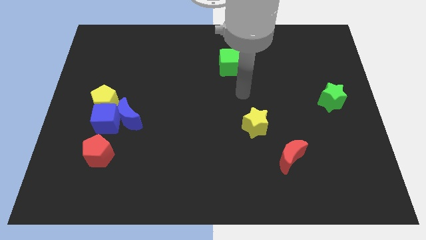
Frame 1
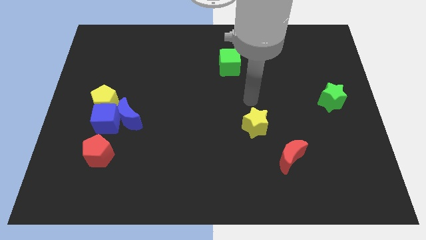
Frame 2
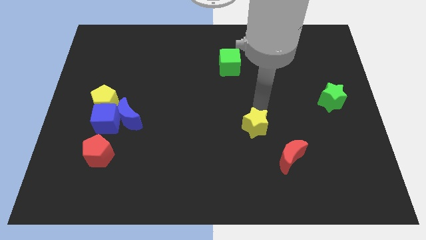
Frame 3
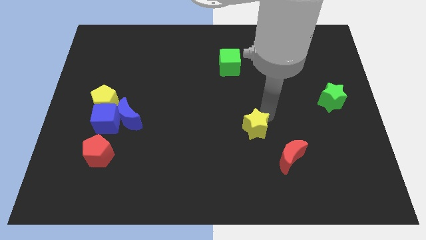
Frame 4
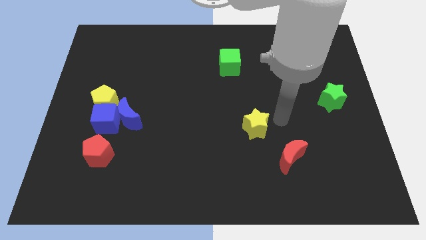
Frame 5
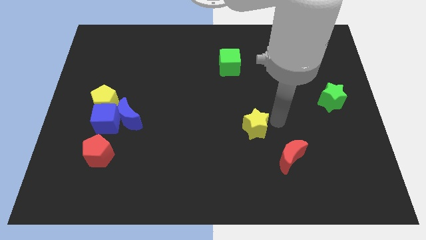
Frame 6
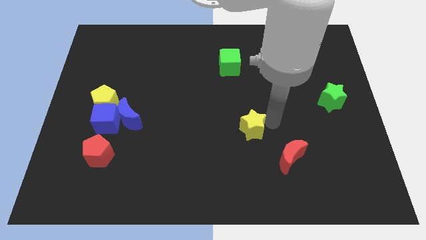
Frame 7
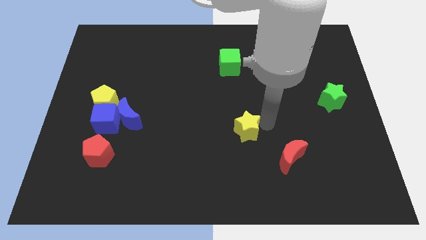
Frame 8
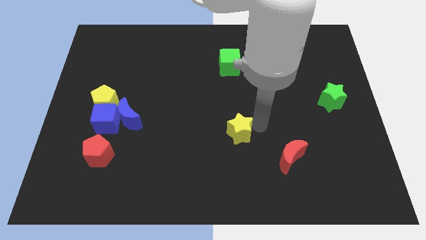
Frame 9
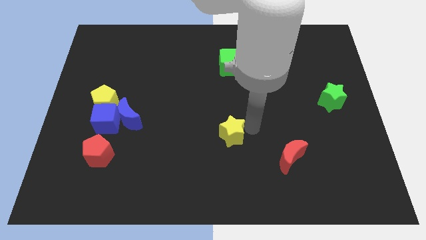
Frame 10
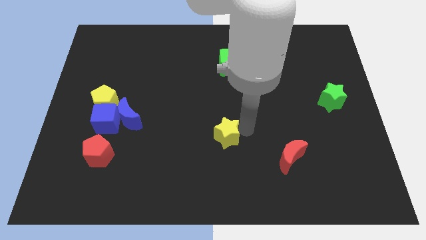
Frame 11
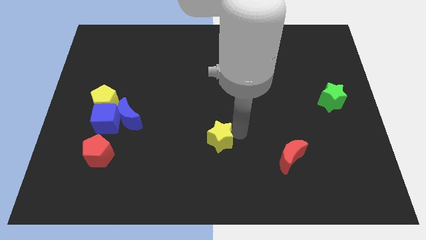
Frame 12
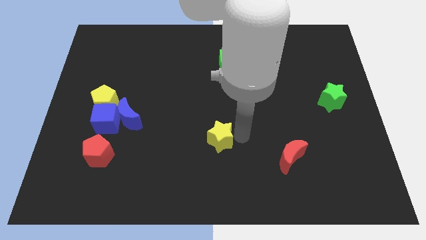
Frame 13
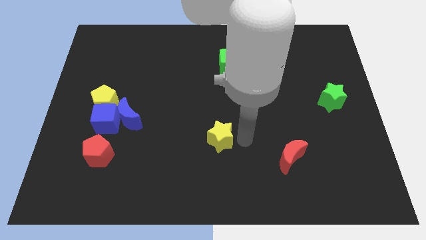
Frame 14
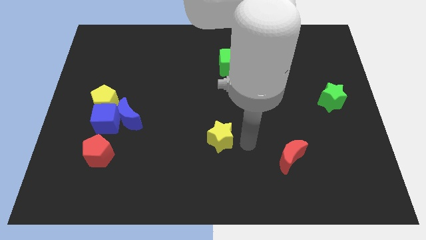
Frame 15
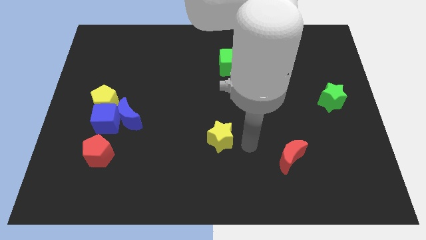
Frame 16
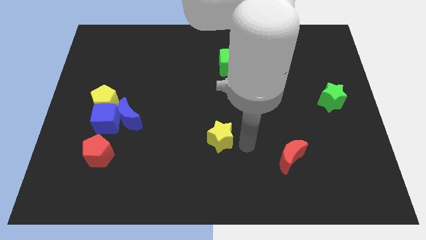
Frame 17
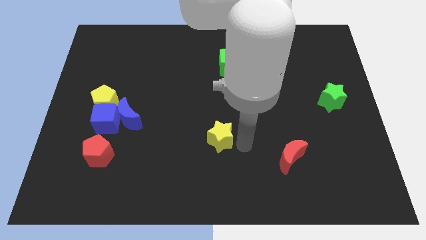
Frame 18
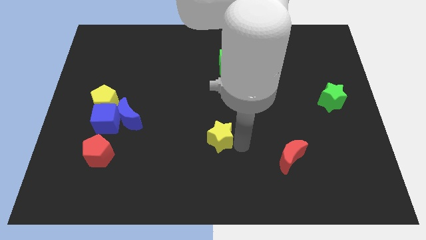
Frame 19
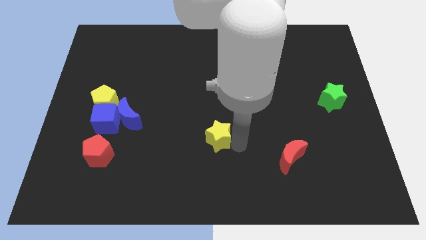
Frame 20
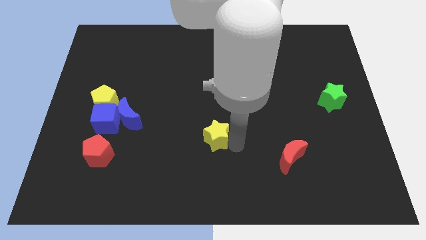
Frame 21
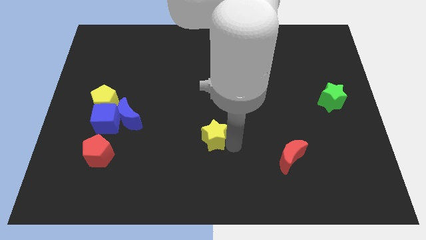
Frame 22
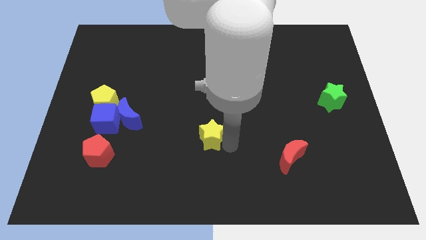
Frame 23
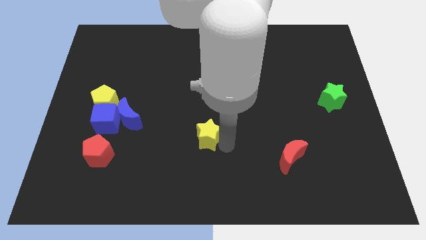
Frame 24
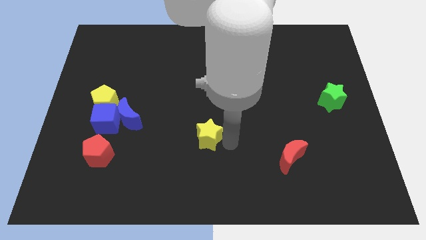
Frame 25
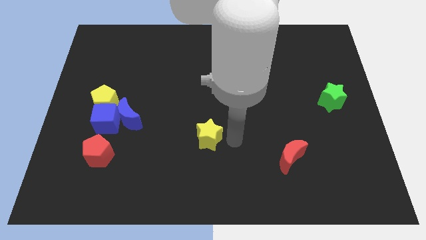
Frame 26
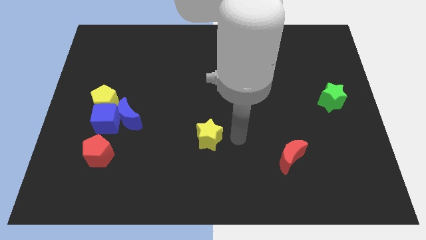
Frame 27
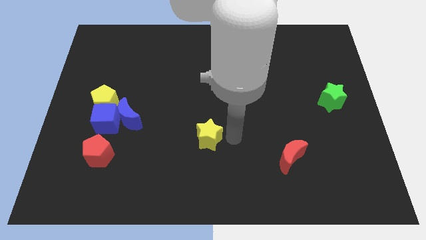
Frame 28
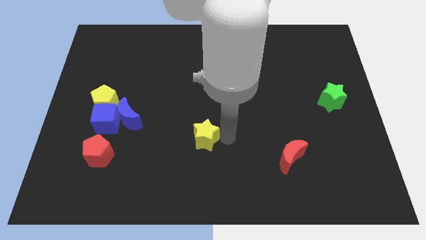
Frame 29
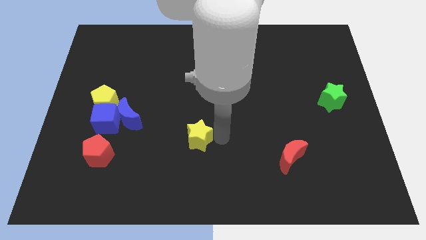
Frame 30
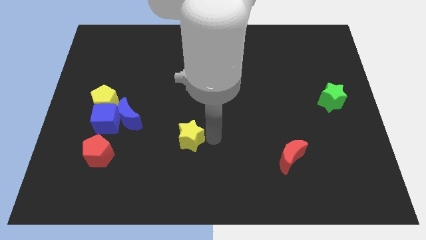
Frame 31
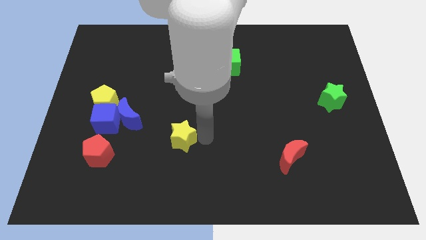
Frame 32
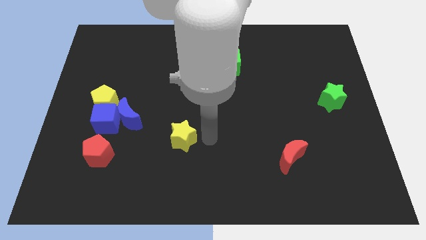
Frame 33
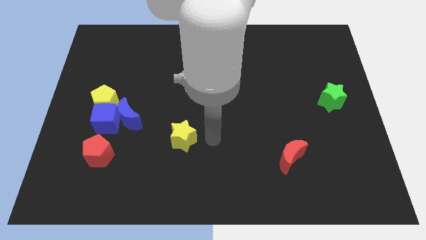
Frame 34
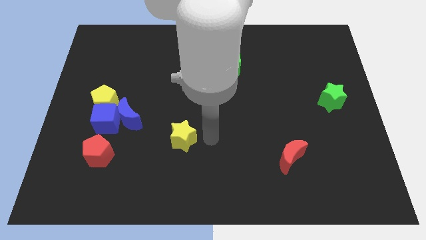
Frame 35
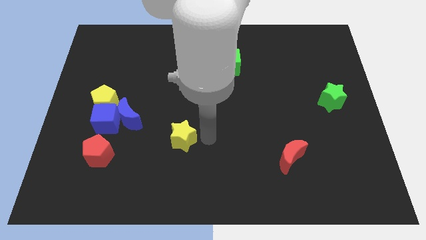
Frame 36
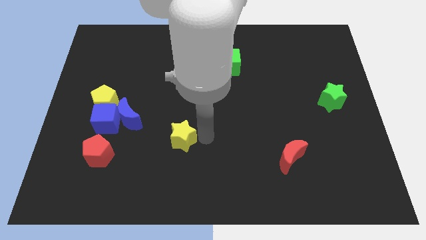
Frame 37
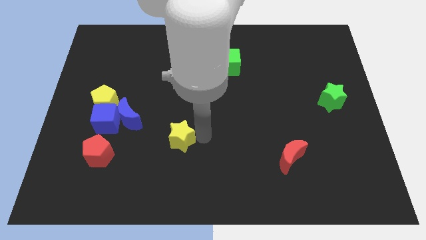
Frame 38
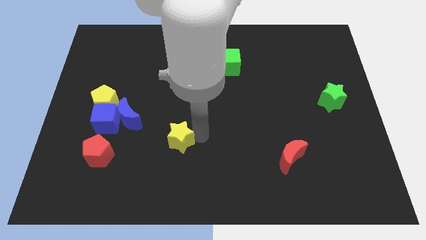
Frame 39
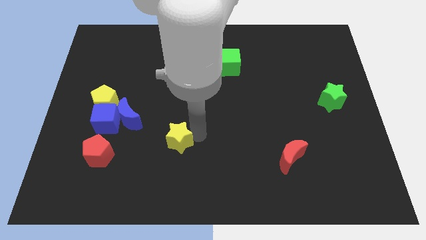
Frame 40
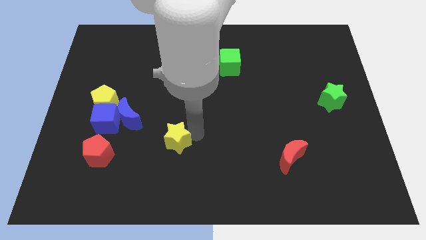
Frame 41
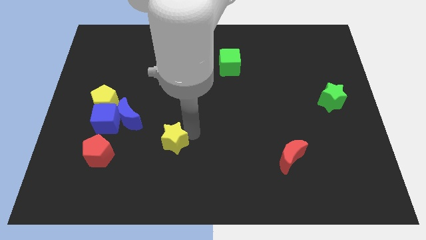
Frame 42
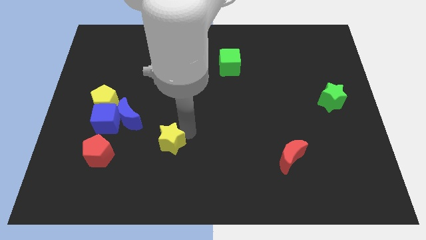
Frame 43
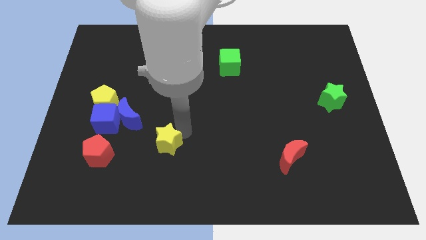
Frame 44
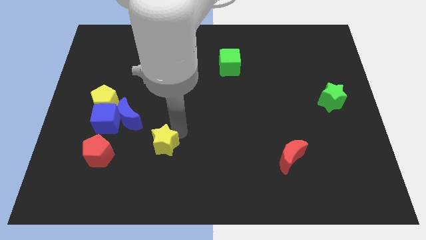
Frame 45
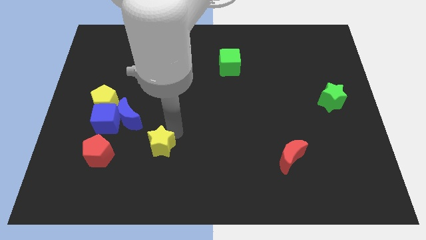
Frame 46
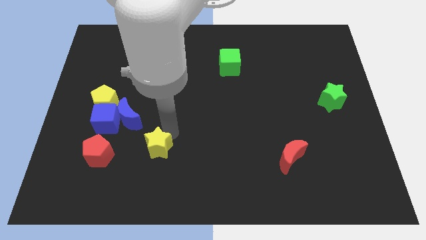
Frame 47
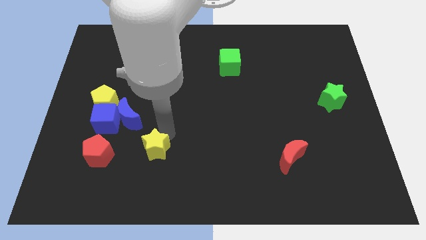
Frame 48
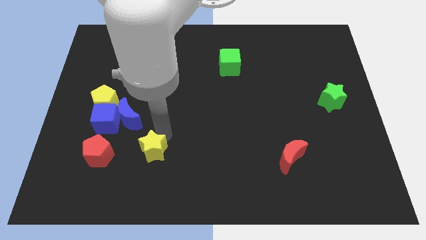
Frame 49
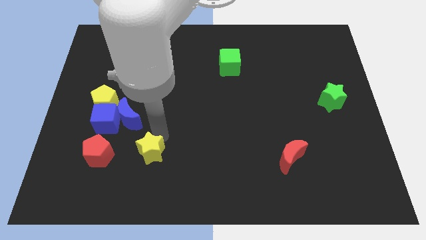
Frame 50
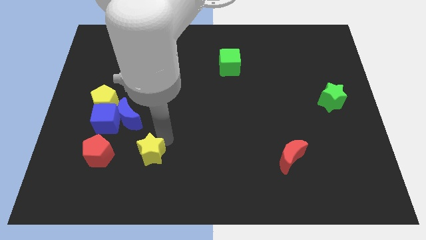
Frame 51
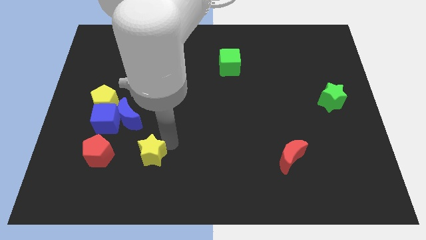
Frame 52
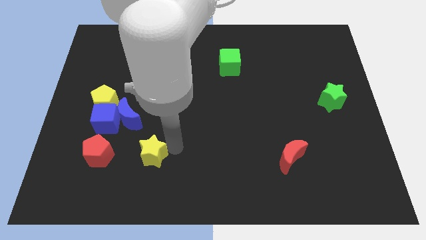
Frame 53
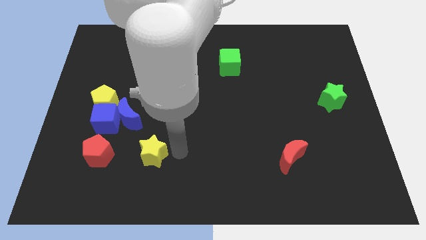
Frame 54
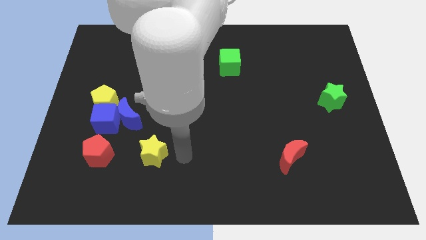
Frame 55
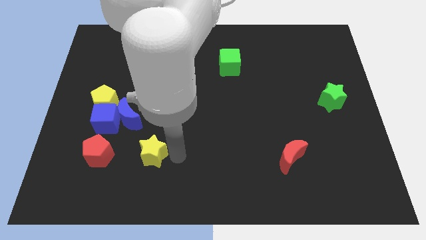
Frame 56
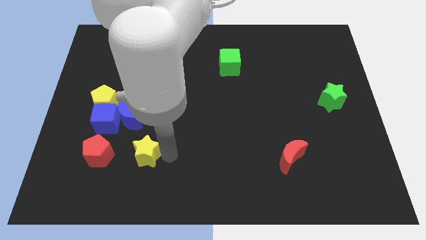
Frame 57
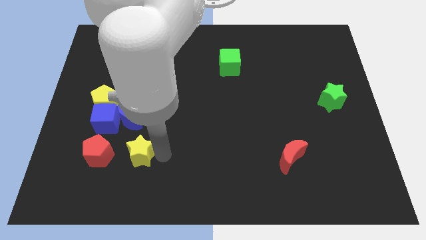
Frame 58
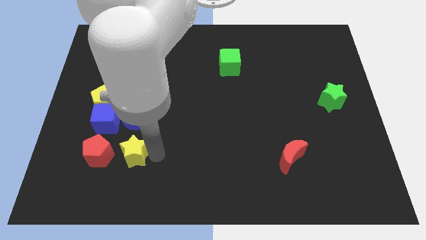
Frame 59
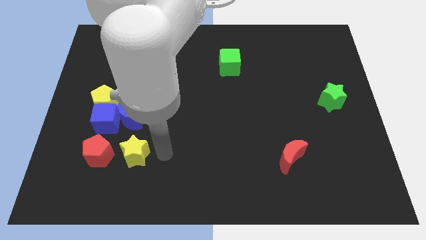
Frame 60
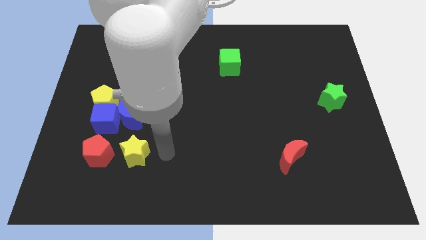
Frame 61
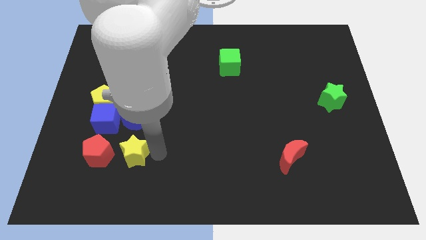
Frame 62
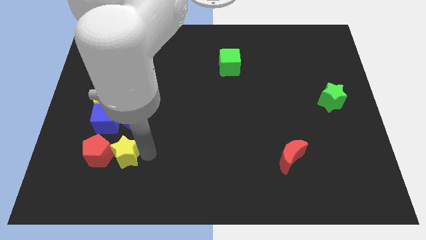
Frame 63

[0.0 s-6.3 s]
push the yellow star to the red pentagon
